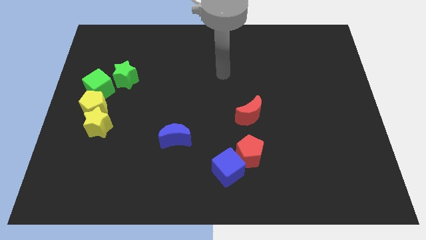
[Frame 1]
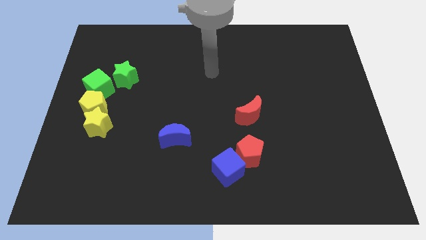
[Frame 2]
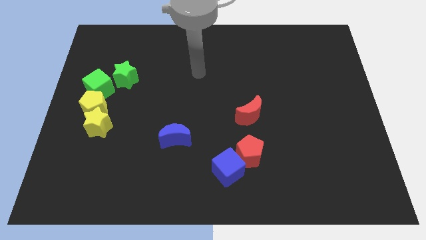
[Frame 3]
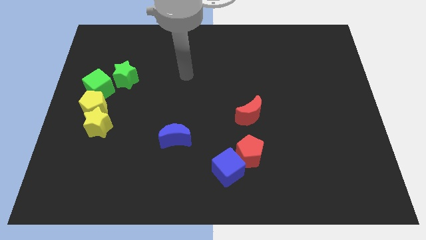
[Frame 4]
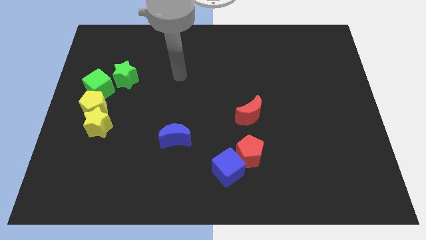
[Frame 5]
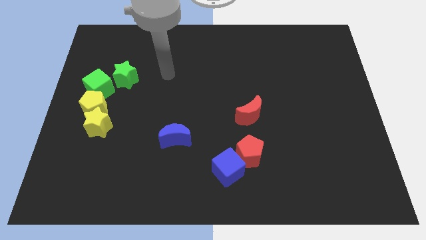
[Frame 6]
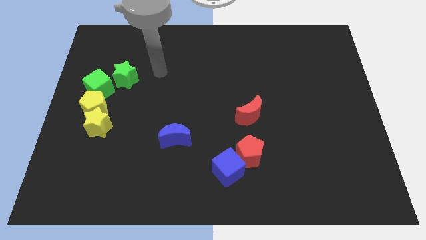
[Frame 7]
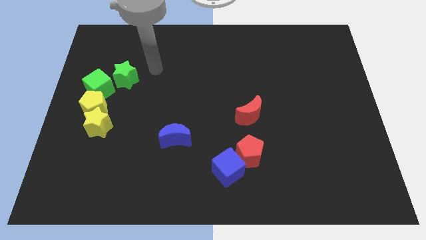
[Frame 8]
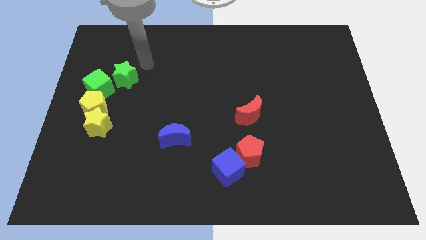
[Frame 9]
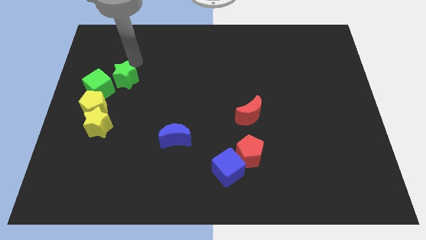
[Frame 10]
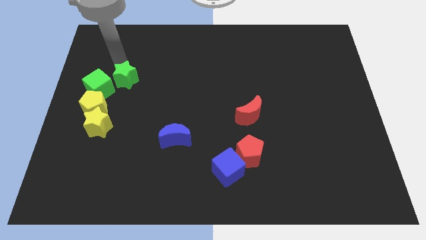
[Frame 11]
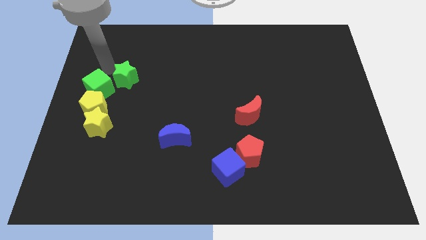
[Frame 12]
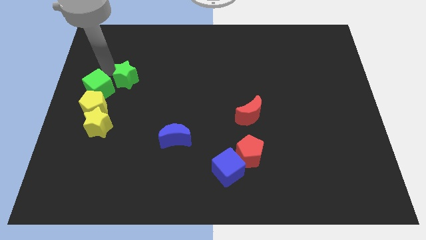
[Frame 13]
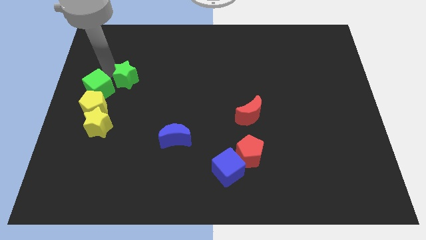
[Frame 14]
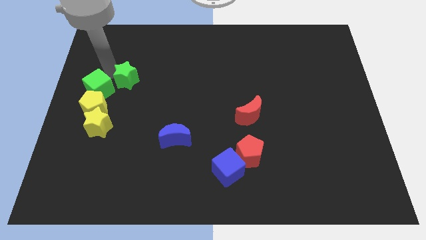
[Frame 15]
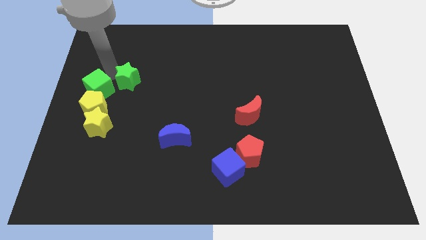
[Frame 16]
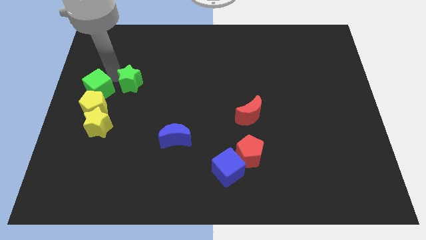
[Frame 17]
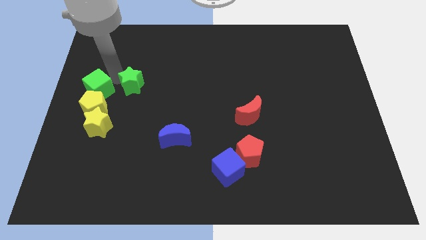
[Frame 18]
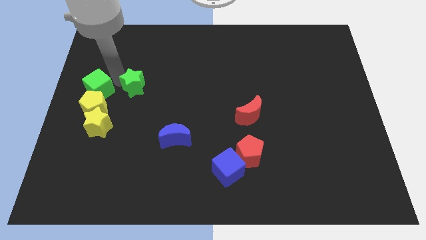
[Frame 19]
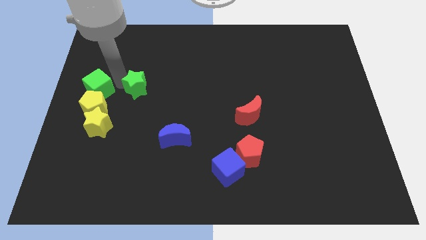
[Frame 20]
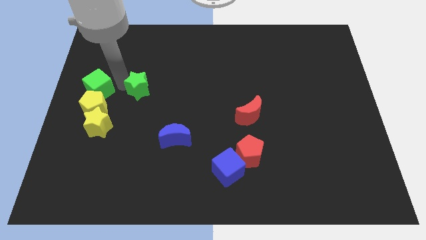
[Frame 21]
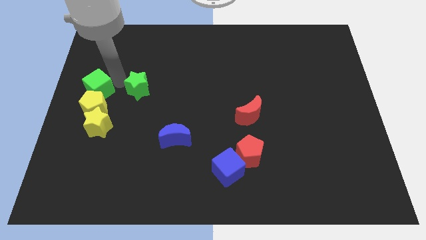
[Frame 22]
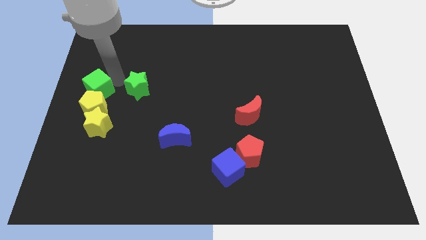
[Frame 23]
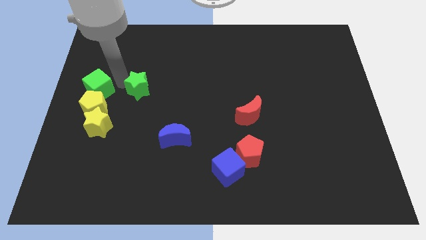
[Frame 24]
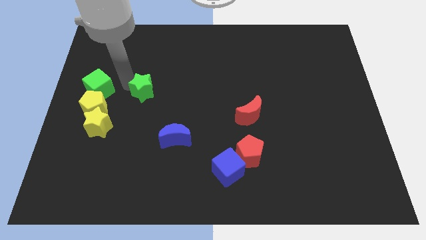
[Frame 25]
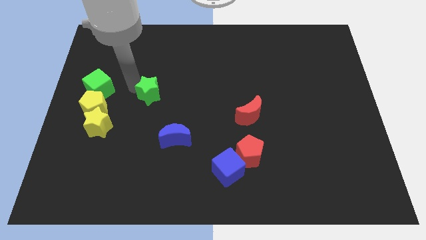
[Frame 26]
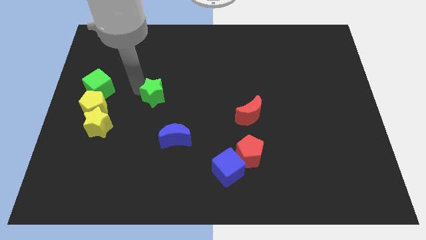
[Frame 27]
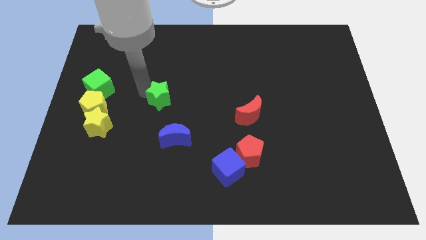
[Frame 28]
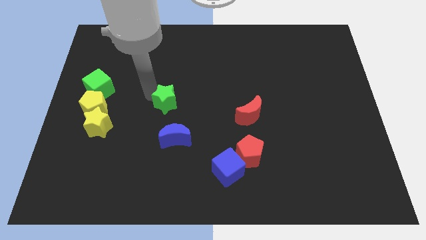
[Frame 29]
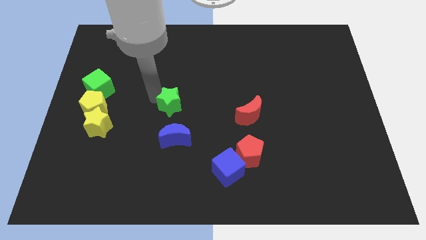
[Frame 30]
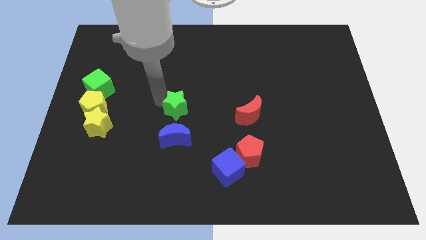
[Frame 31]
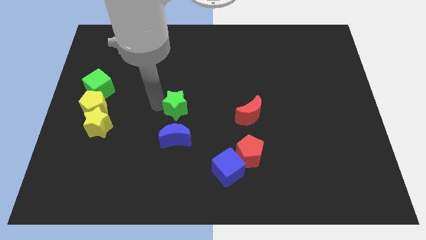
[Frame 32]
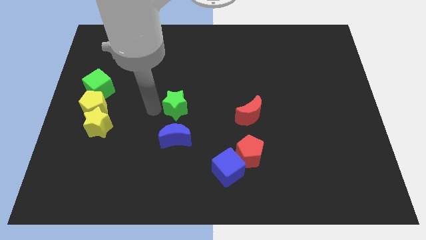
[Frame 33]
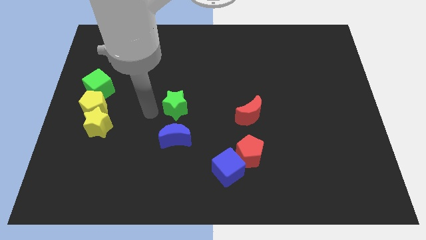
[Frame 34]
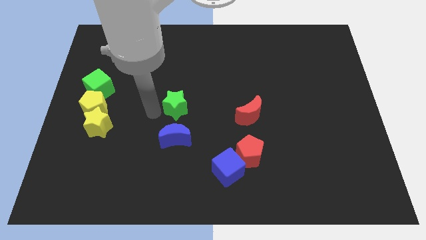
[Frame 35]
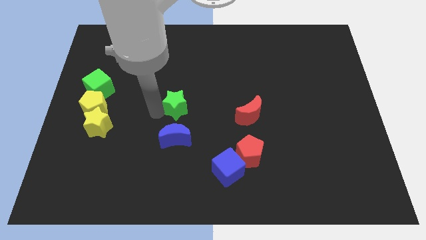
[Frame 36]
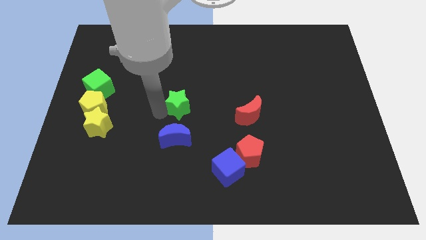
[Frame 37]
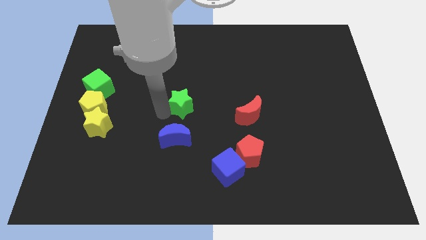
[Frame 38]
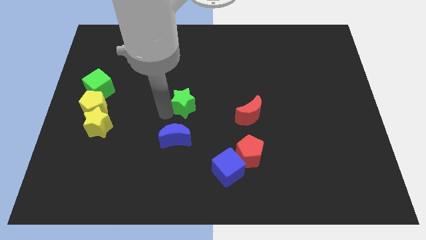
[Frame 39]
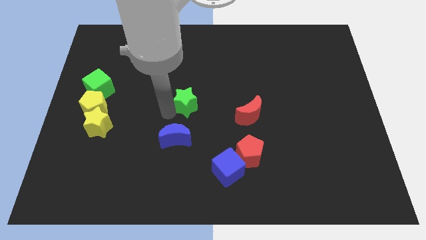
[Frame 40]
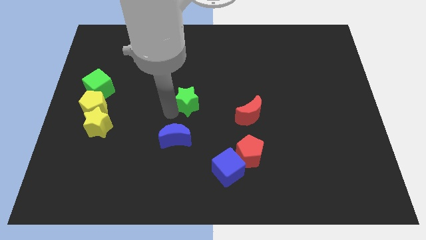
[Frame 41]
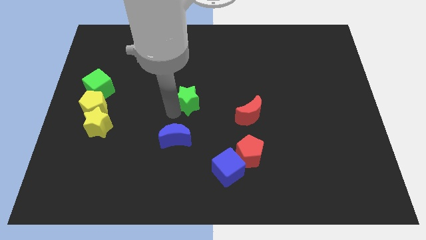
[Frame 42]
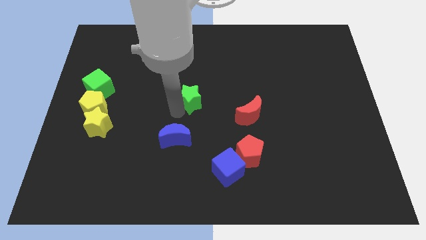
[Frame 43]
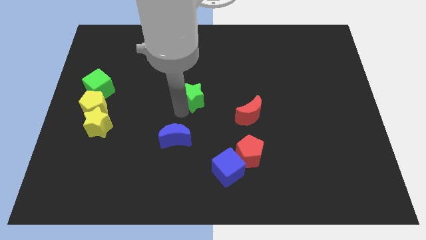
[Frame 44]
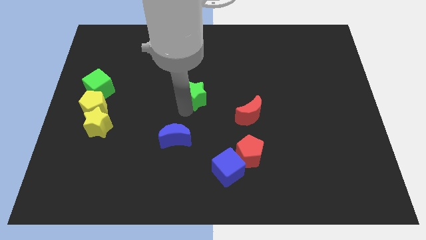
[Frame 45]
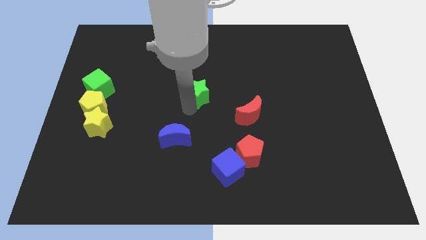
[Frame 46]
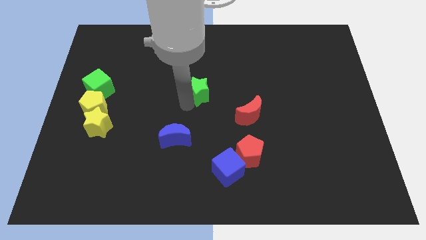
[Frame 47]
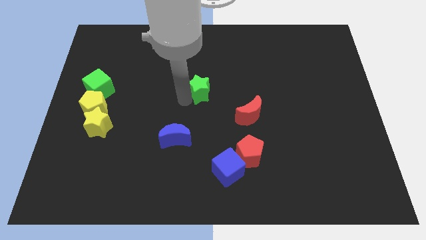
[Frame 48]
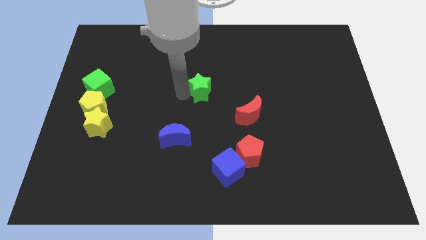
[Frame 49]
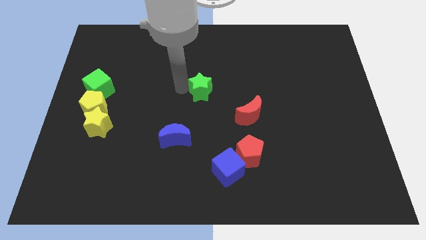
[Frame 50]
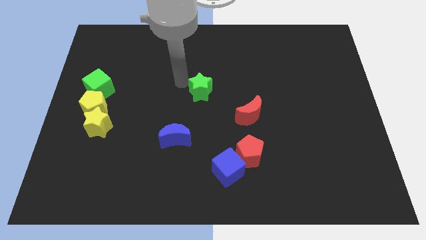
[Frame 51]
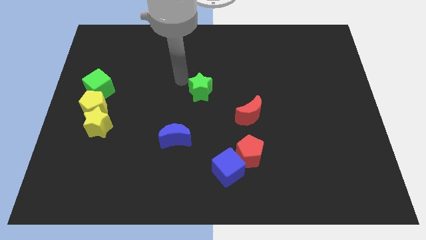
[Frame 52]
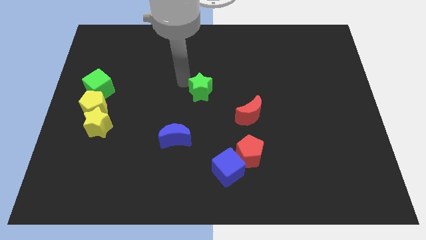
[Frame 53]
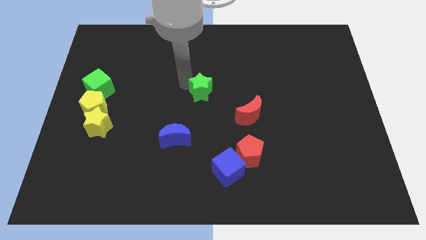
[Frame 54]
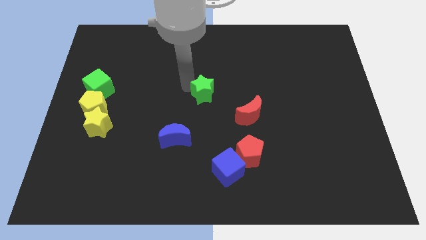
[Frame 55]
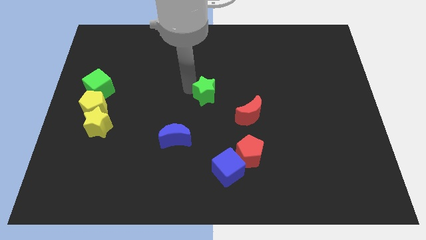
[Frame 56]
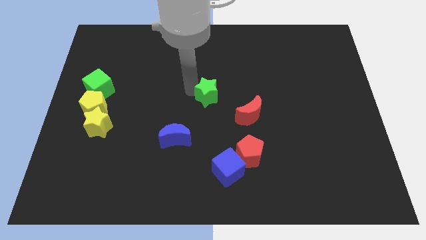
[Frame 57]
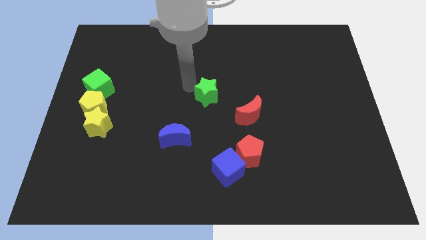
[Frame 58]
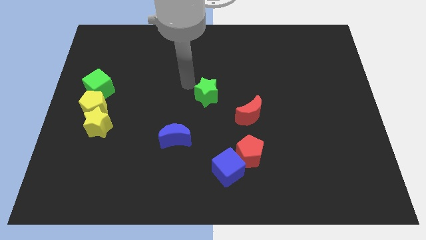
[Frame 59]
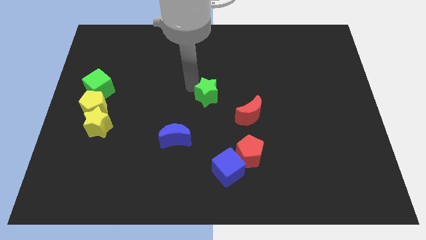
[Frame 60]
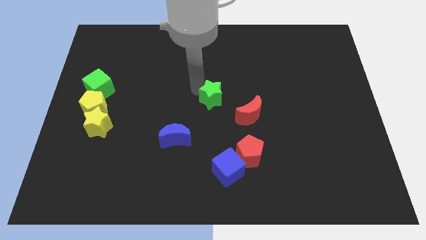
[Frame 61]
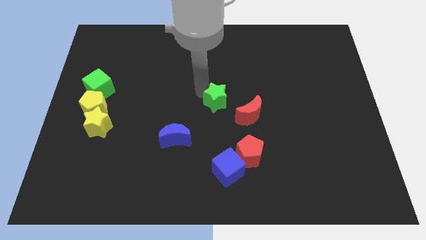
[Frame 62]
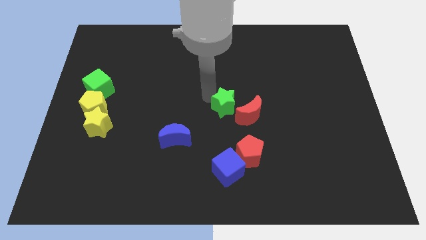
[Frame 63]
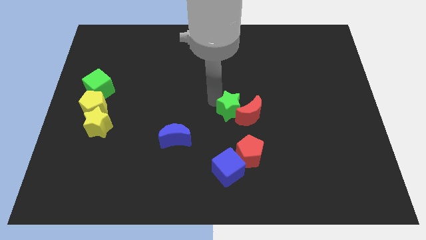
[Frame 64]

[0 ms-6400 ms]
push the green star towards the red moon
